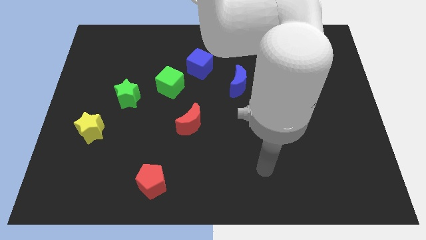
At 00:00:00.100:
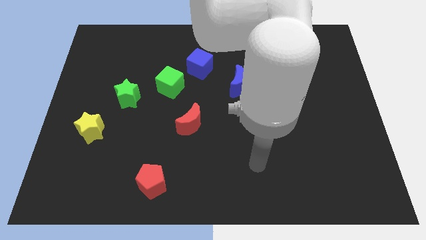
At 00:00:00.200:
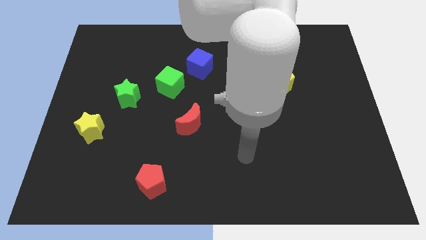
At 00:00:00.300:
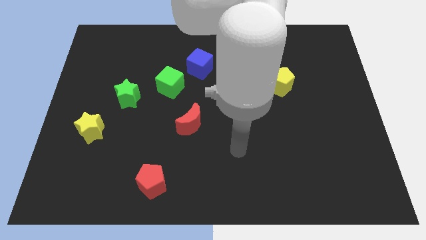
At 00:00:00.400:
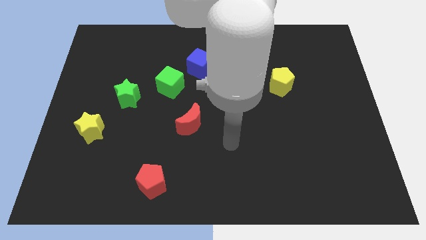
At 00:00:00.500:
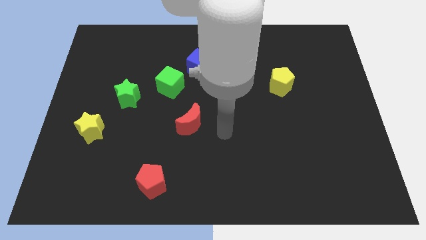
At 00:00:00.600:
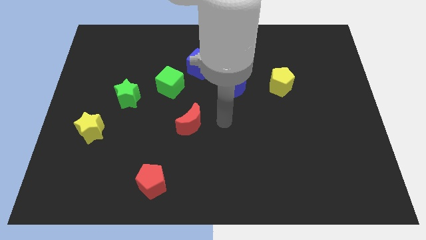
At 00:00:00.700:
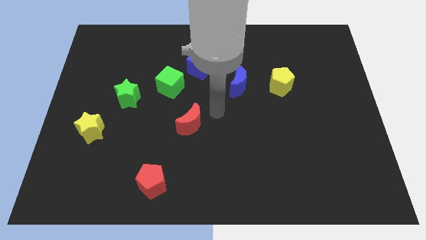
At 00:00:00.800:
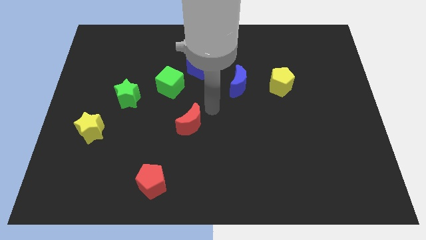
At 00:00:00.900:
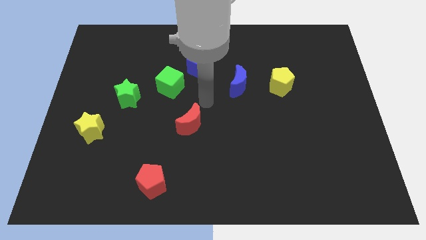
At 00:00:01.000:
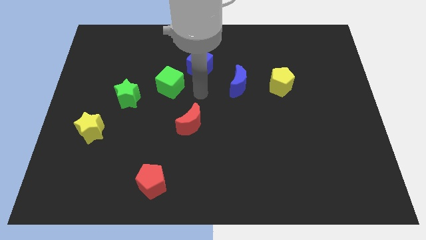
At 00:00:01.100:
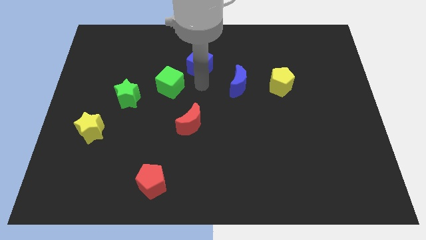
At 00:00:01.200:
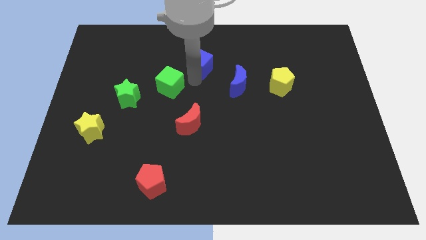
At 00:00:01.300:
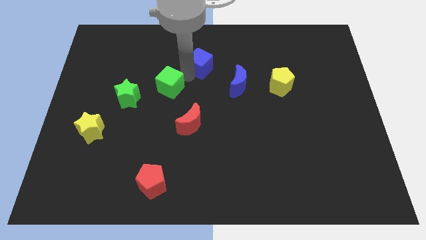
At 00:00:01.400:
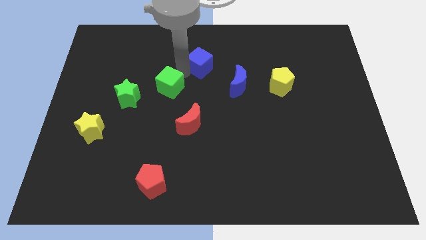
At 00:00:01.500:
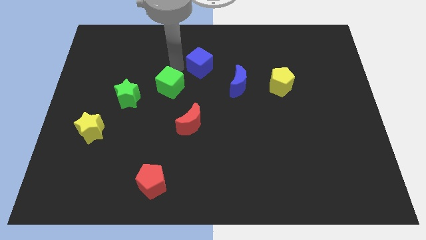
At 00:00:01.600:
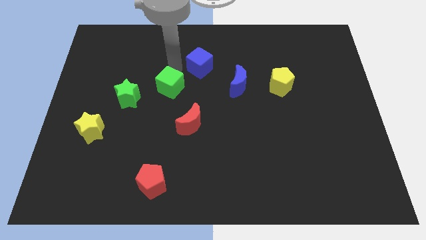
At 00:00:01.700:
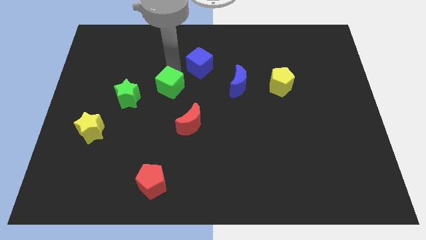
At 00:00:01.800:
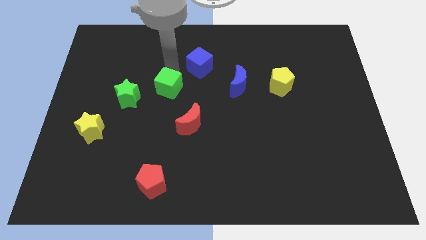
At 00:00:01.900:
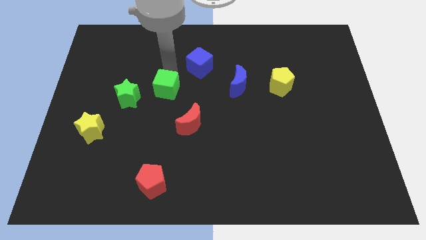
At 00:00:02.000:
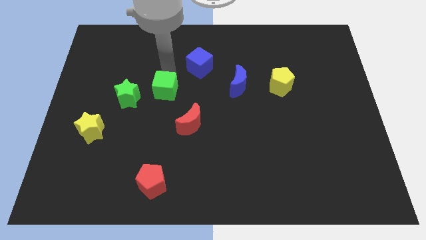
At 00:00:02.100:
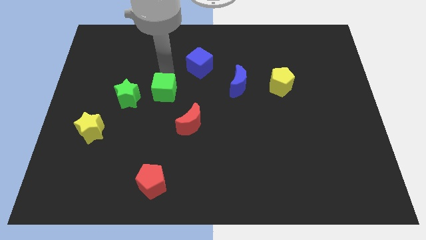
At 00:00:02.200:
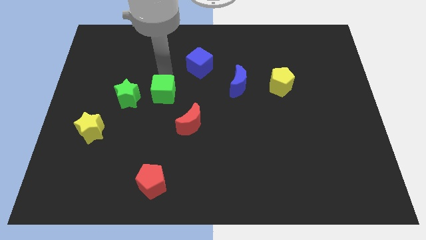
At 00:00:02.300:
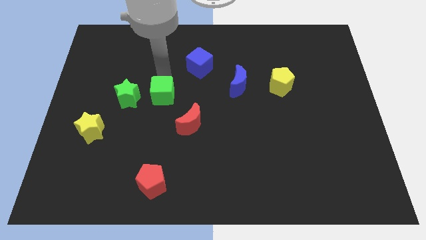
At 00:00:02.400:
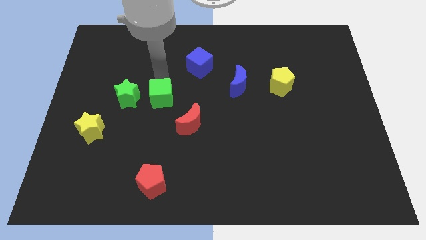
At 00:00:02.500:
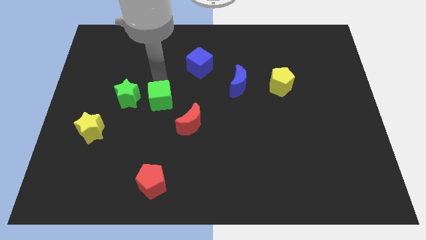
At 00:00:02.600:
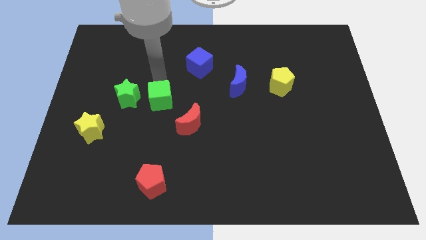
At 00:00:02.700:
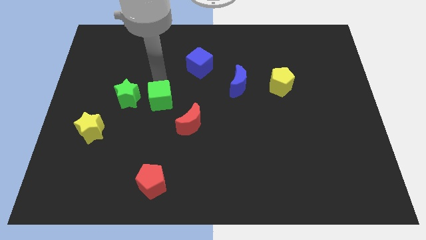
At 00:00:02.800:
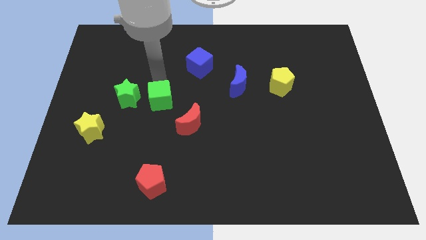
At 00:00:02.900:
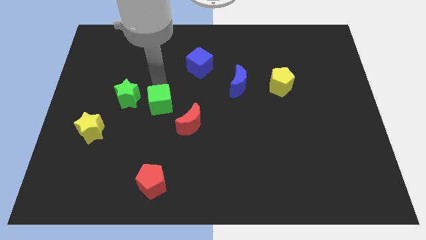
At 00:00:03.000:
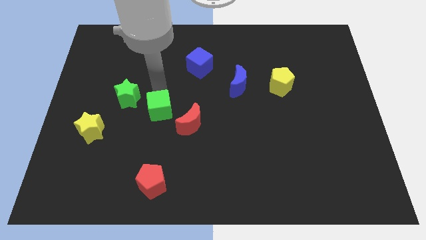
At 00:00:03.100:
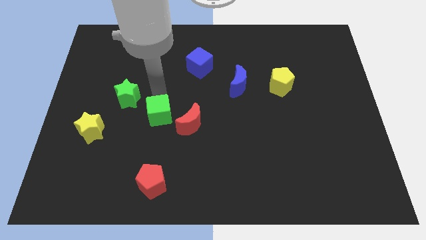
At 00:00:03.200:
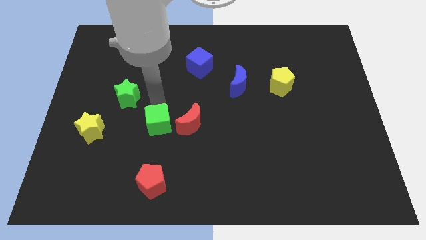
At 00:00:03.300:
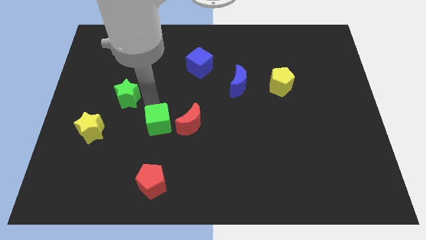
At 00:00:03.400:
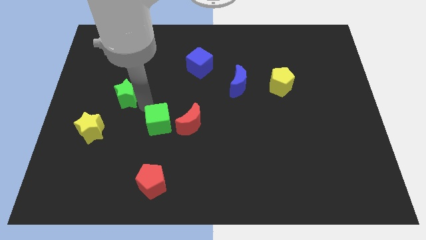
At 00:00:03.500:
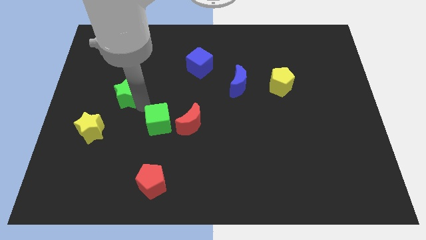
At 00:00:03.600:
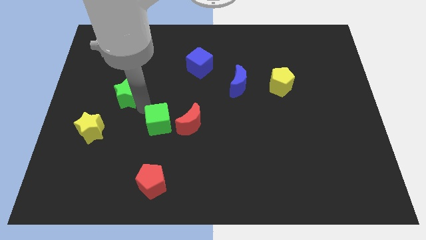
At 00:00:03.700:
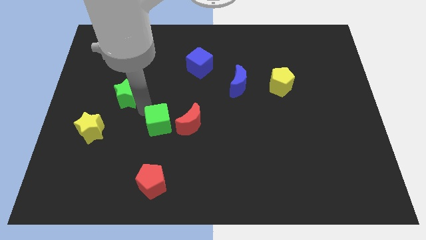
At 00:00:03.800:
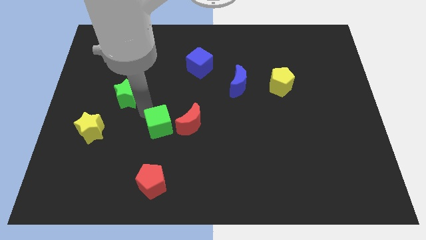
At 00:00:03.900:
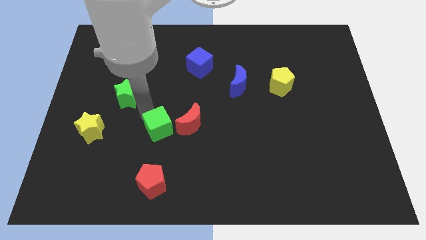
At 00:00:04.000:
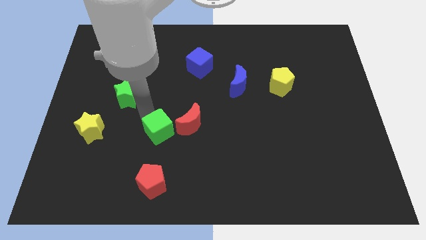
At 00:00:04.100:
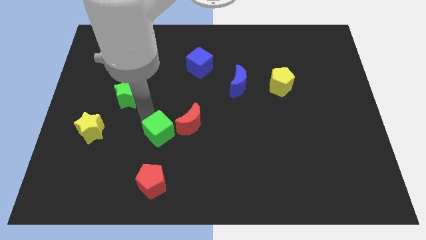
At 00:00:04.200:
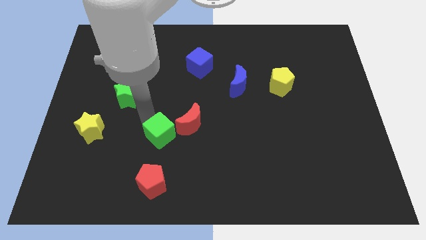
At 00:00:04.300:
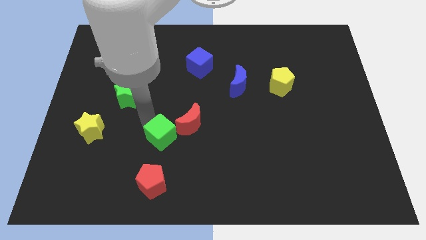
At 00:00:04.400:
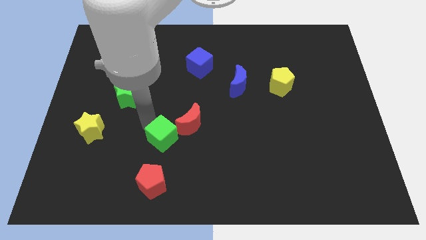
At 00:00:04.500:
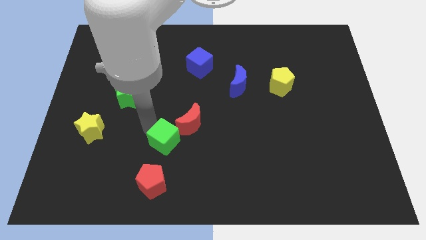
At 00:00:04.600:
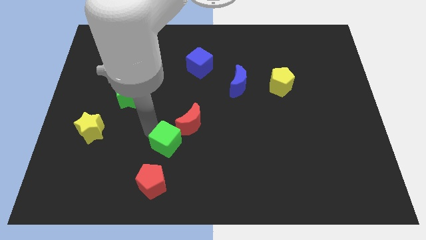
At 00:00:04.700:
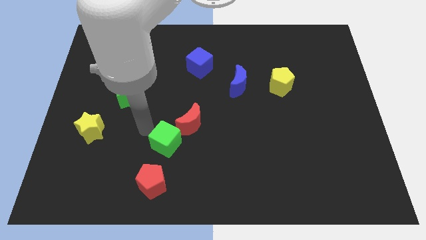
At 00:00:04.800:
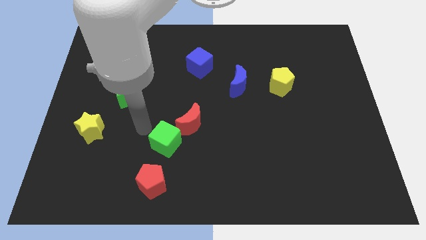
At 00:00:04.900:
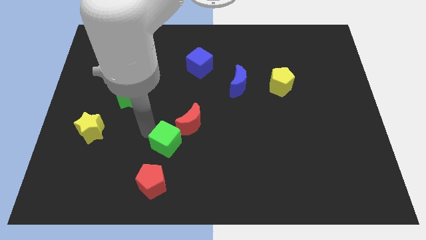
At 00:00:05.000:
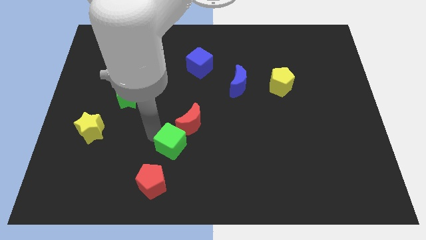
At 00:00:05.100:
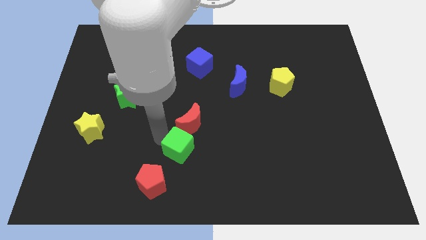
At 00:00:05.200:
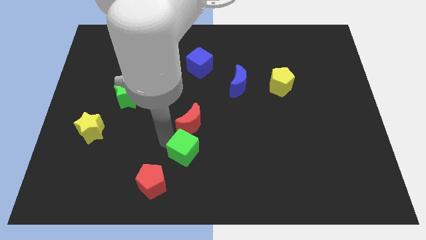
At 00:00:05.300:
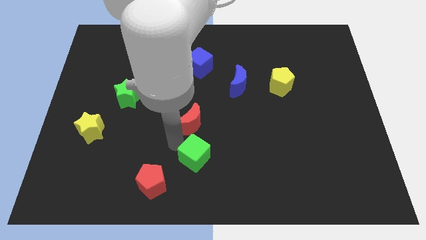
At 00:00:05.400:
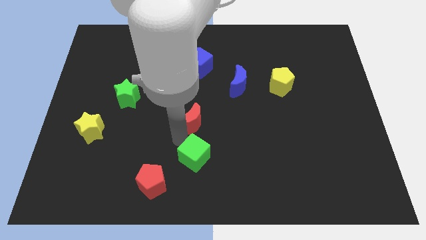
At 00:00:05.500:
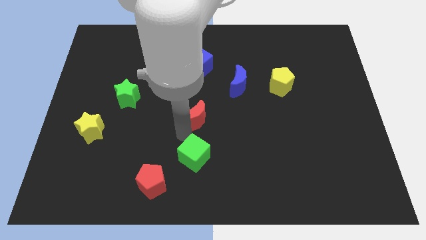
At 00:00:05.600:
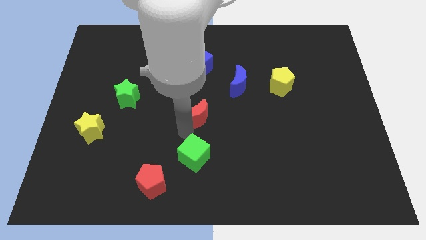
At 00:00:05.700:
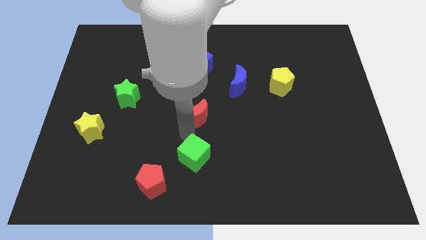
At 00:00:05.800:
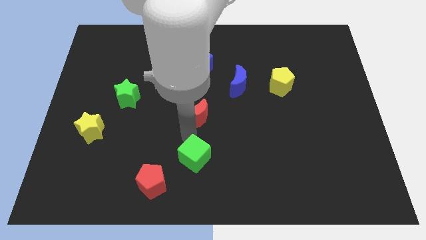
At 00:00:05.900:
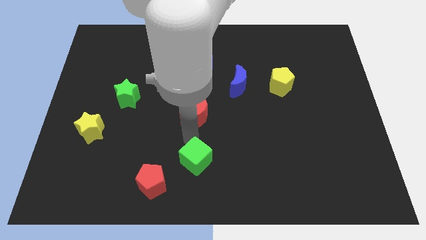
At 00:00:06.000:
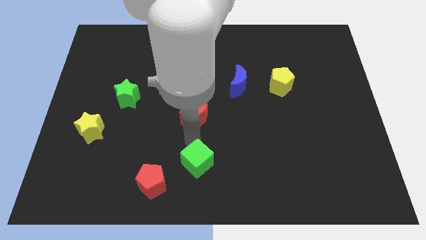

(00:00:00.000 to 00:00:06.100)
push the green cube just right of the red pentagon
